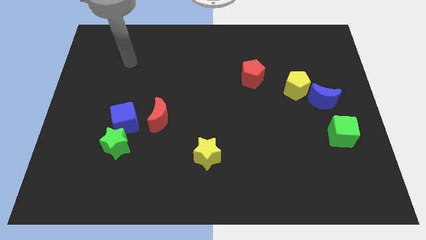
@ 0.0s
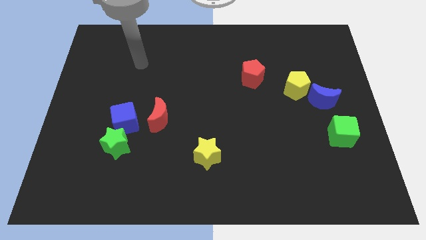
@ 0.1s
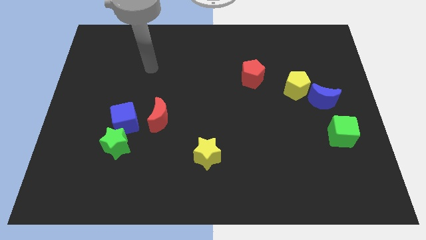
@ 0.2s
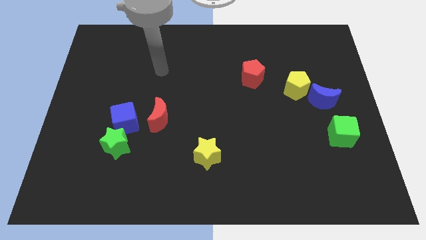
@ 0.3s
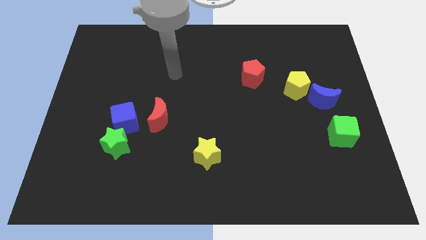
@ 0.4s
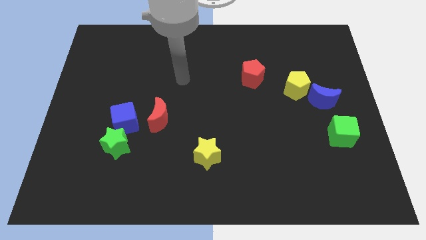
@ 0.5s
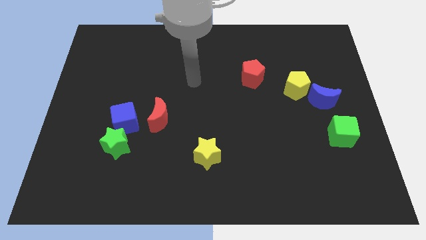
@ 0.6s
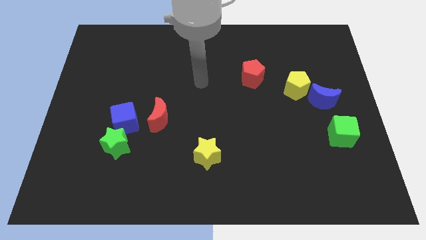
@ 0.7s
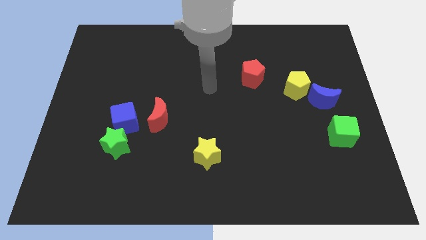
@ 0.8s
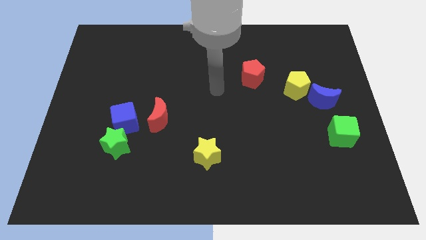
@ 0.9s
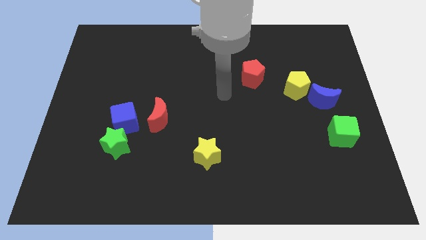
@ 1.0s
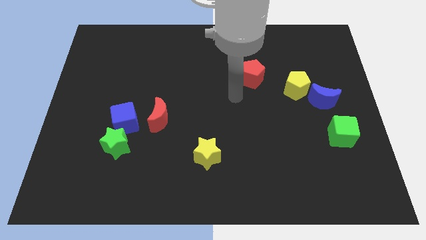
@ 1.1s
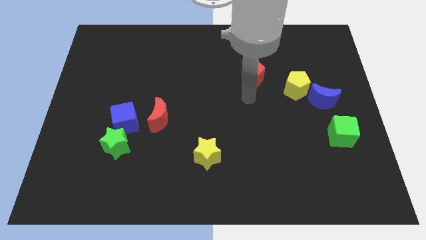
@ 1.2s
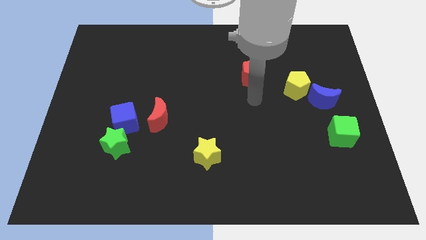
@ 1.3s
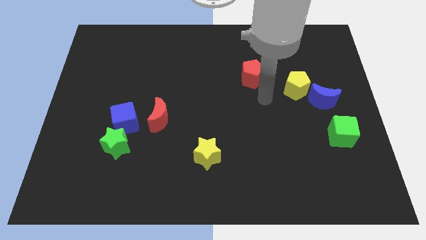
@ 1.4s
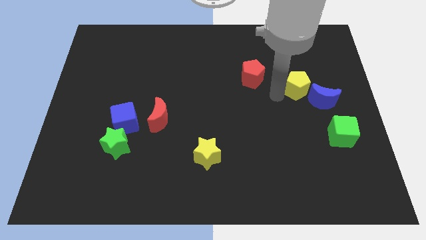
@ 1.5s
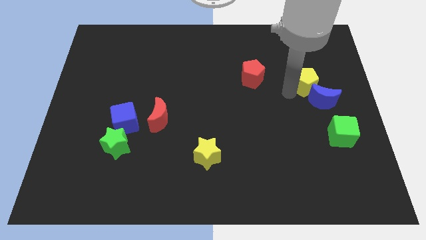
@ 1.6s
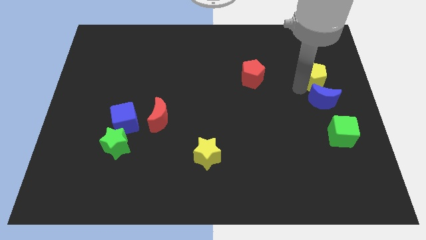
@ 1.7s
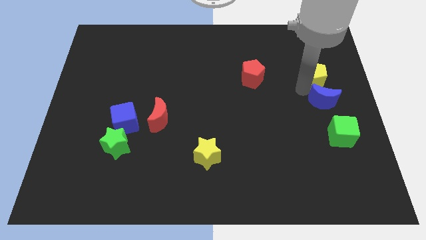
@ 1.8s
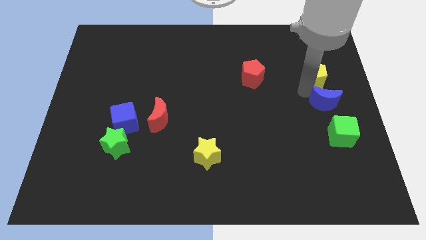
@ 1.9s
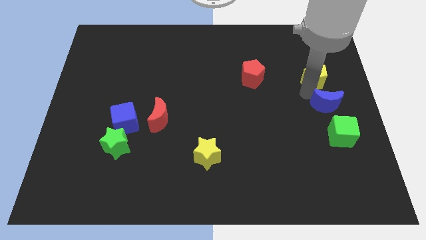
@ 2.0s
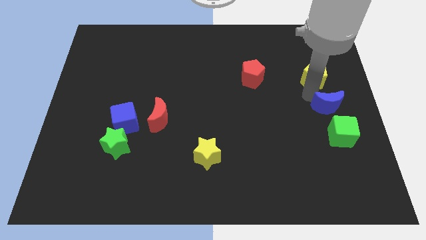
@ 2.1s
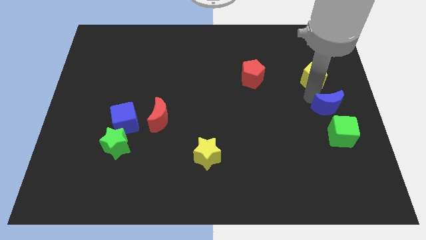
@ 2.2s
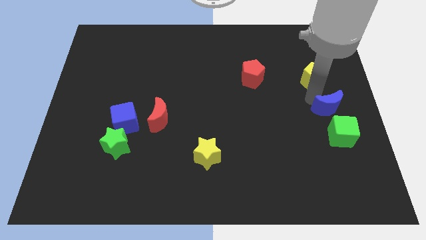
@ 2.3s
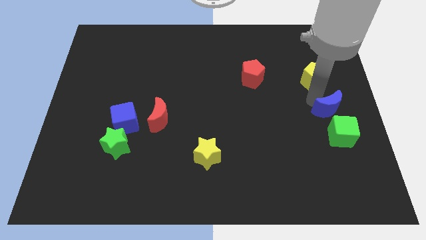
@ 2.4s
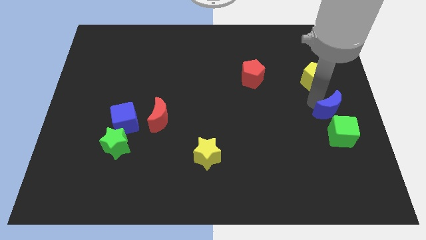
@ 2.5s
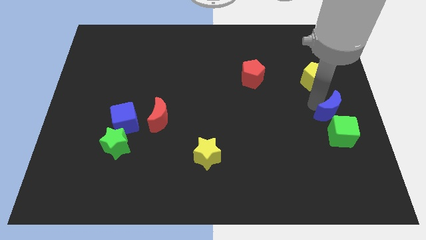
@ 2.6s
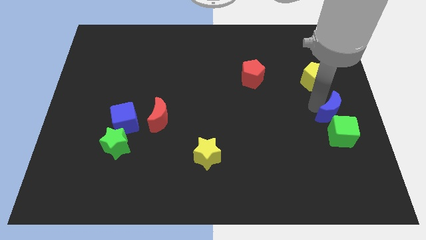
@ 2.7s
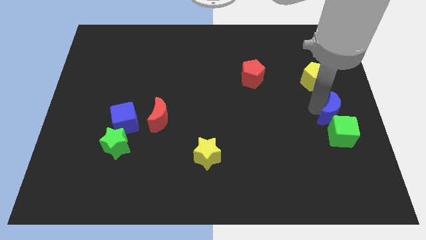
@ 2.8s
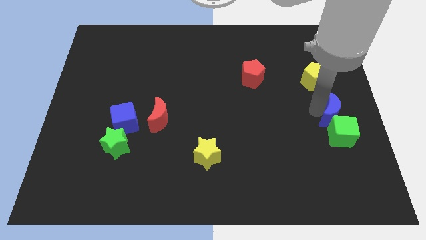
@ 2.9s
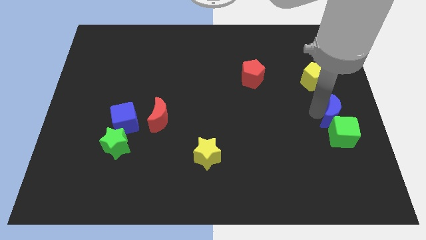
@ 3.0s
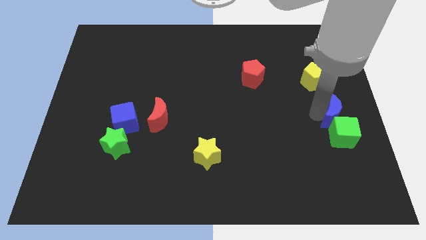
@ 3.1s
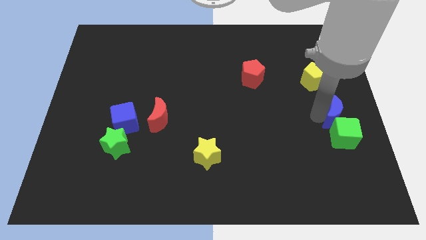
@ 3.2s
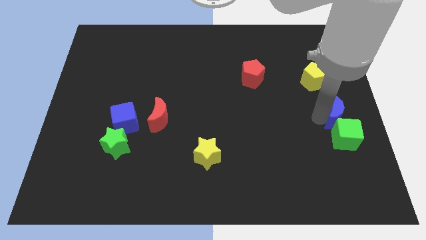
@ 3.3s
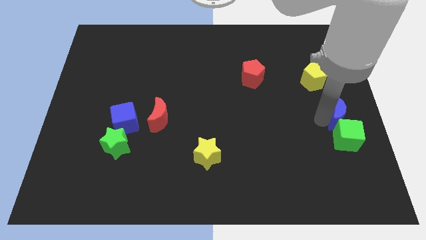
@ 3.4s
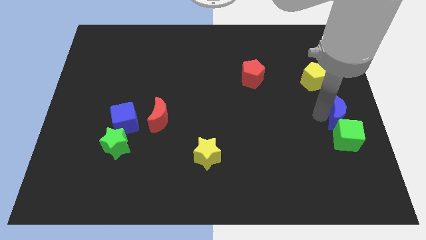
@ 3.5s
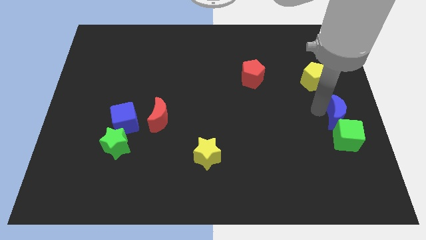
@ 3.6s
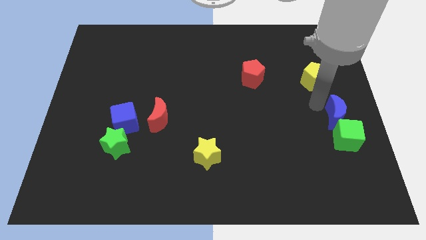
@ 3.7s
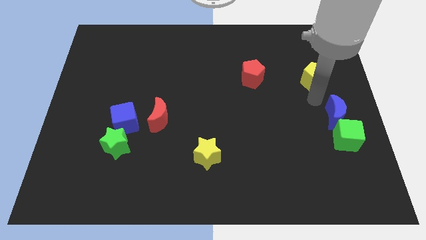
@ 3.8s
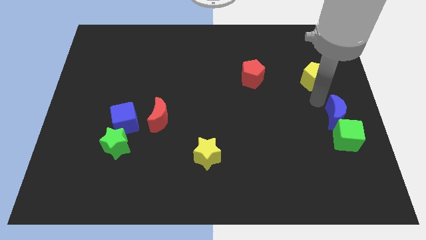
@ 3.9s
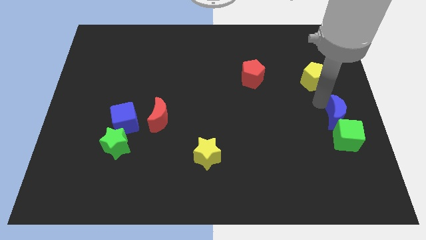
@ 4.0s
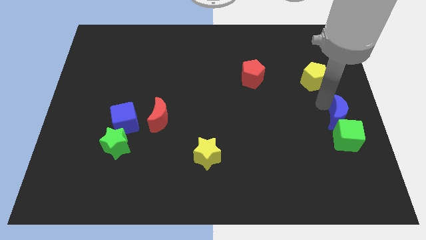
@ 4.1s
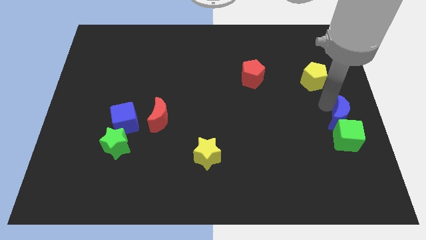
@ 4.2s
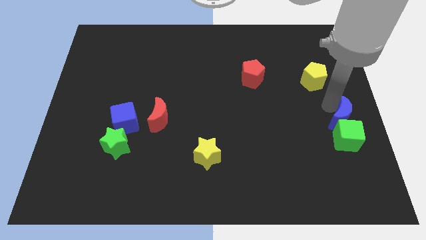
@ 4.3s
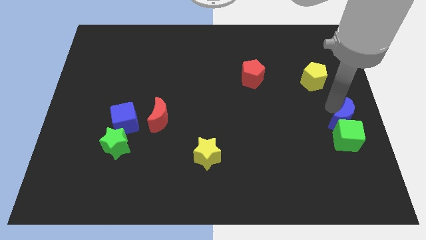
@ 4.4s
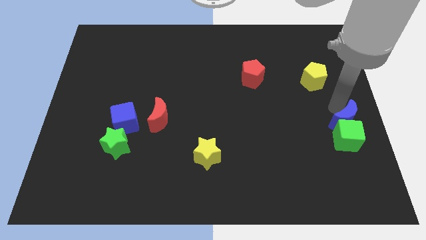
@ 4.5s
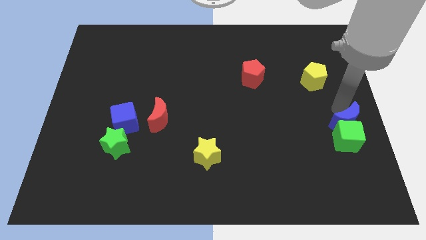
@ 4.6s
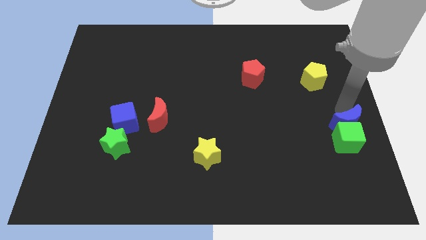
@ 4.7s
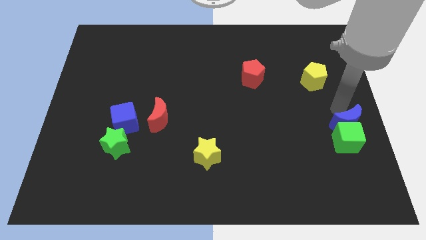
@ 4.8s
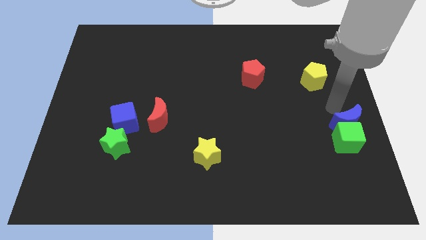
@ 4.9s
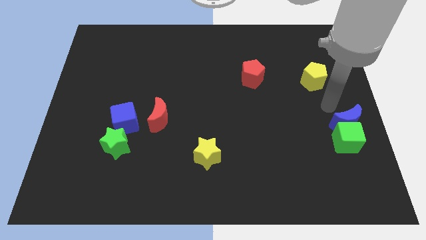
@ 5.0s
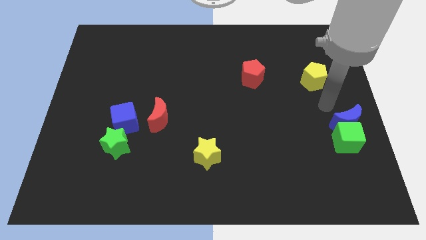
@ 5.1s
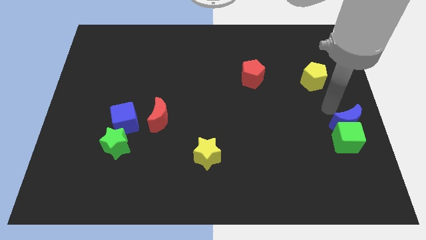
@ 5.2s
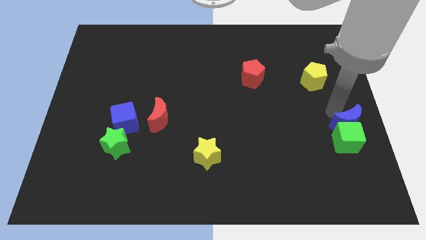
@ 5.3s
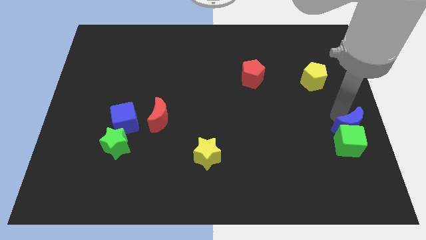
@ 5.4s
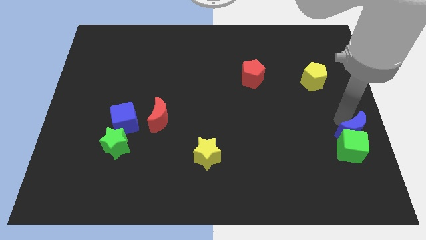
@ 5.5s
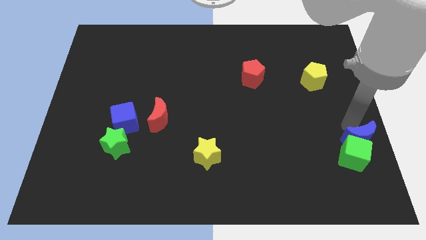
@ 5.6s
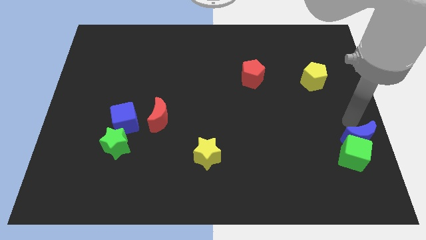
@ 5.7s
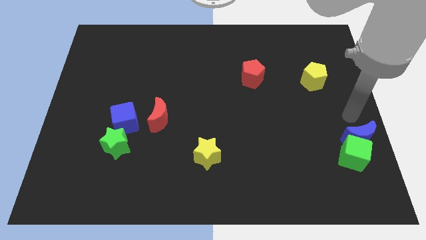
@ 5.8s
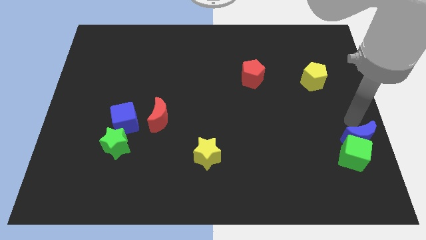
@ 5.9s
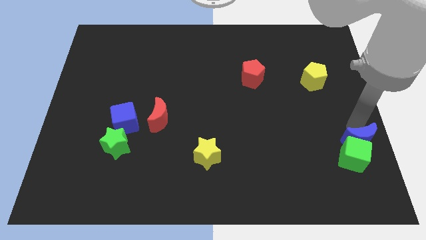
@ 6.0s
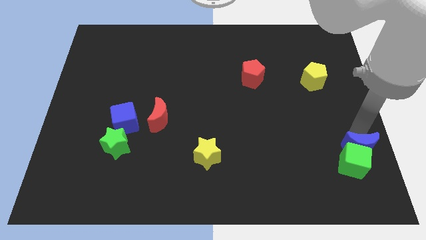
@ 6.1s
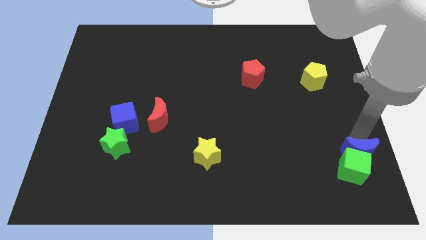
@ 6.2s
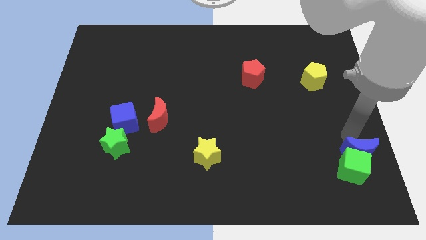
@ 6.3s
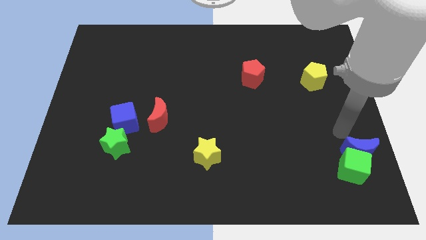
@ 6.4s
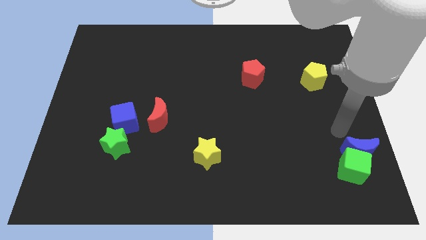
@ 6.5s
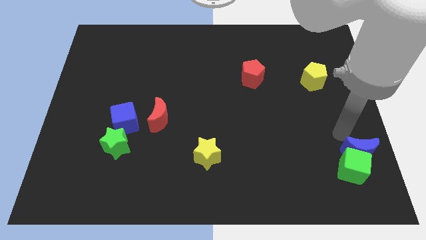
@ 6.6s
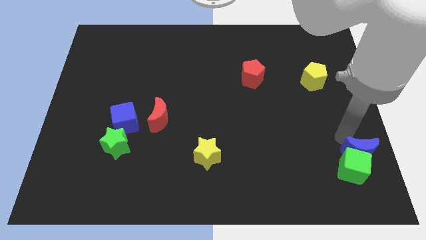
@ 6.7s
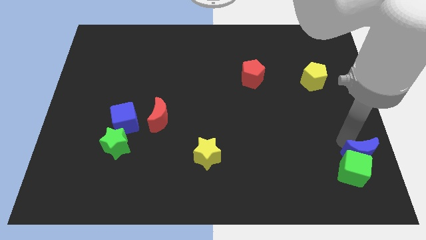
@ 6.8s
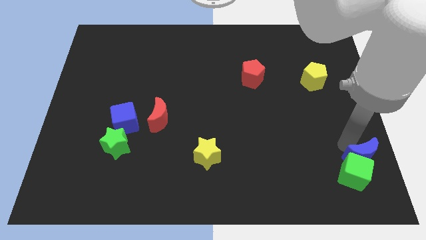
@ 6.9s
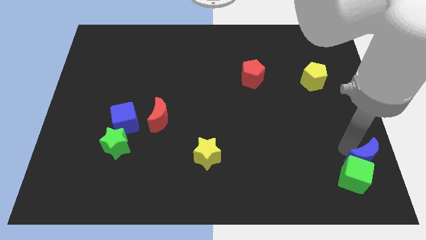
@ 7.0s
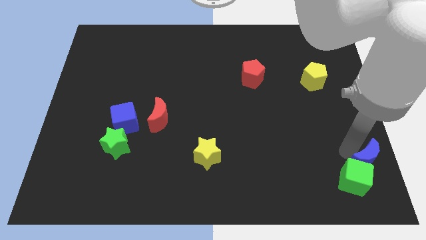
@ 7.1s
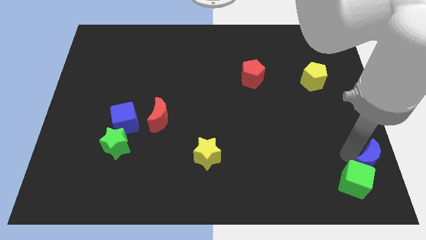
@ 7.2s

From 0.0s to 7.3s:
put the blue moon to the bottom right

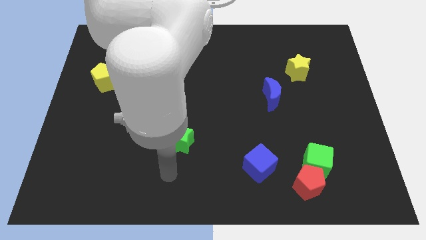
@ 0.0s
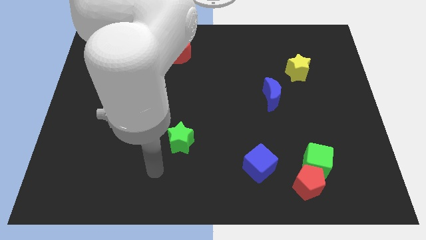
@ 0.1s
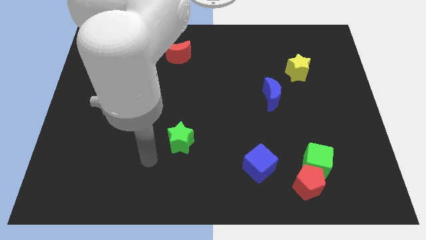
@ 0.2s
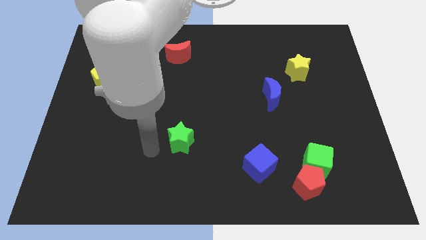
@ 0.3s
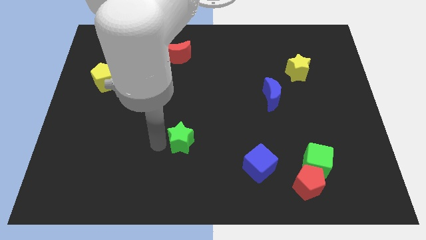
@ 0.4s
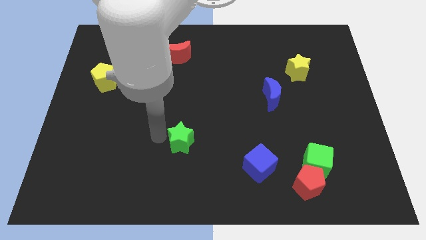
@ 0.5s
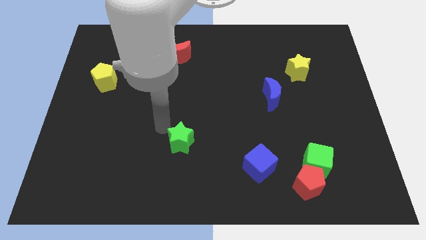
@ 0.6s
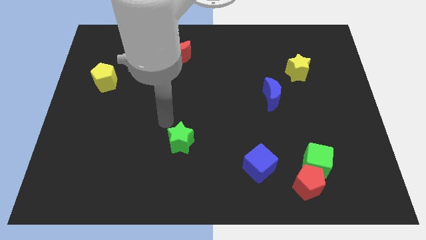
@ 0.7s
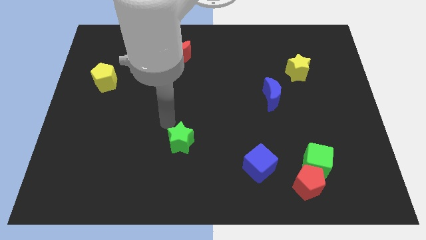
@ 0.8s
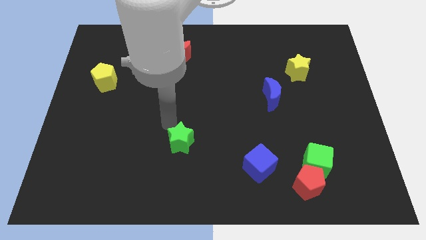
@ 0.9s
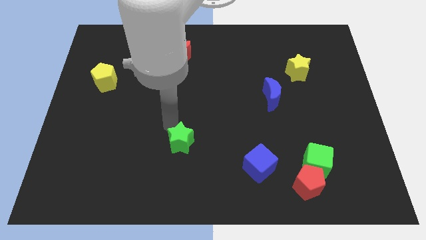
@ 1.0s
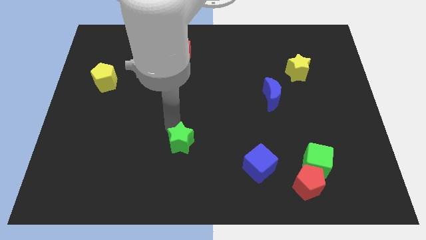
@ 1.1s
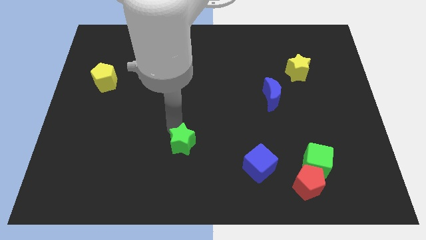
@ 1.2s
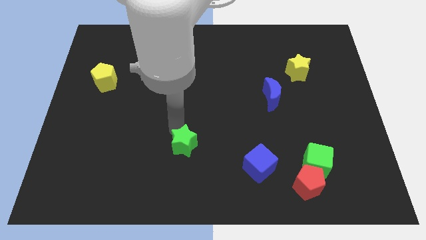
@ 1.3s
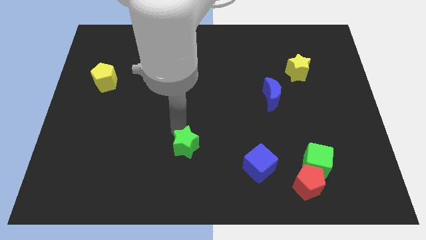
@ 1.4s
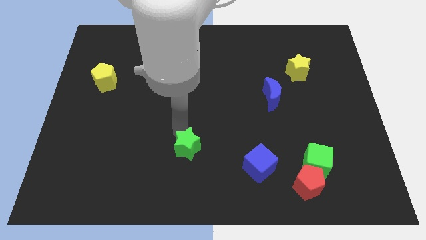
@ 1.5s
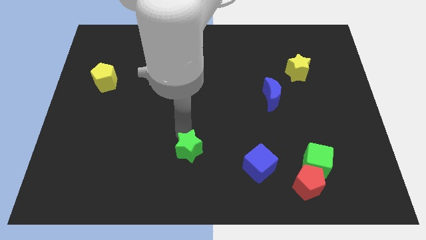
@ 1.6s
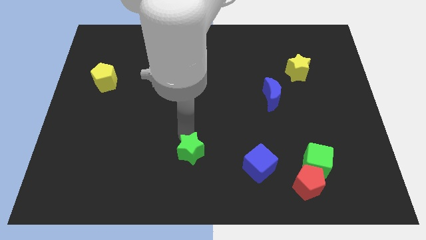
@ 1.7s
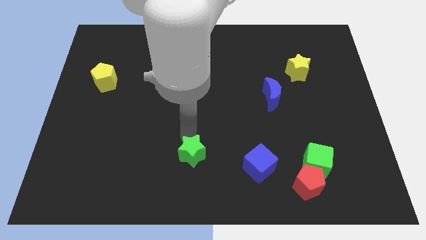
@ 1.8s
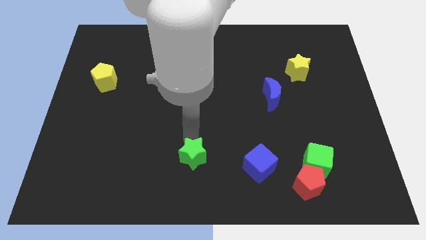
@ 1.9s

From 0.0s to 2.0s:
slide the green star to the bottom side
